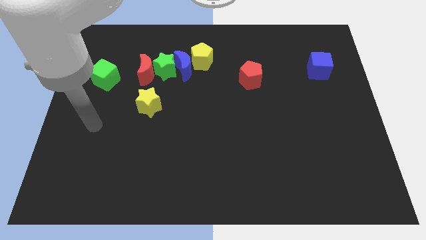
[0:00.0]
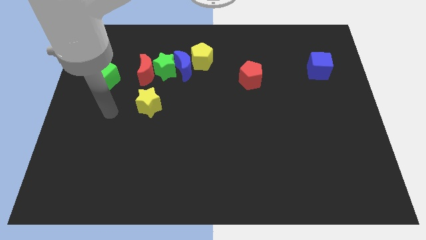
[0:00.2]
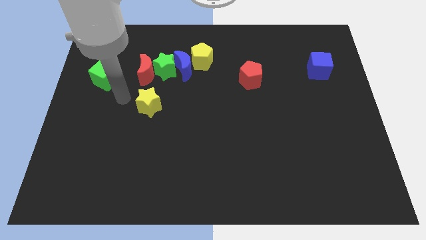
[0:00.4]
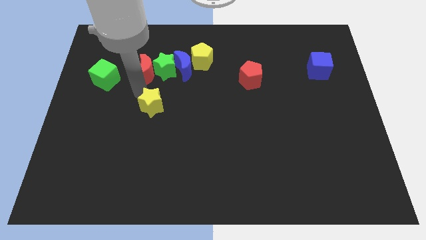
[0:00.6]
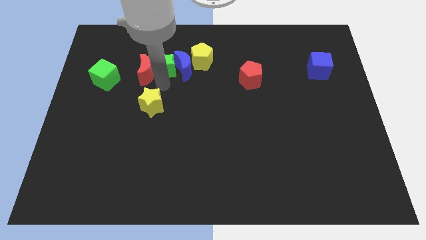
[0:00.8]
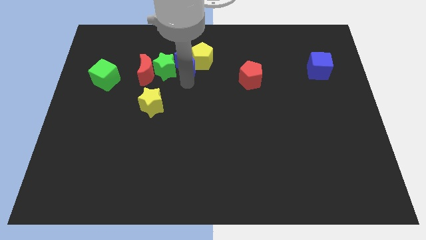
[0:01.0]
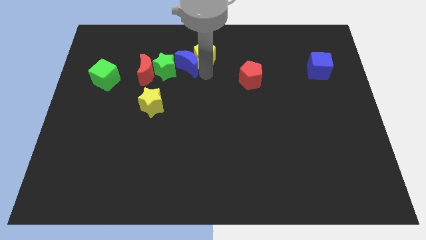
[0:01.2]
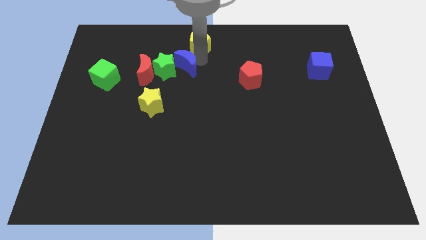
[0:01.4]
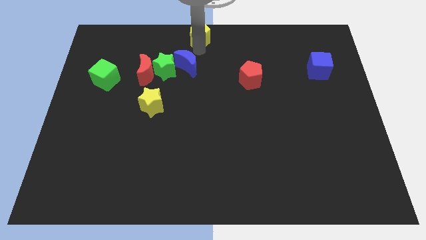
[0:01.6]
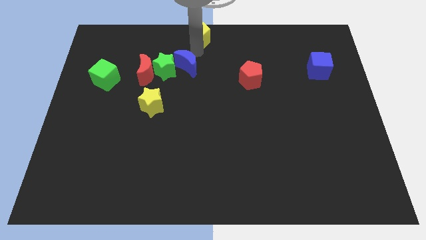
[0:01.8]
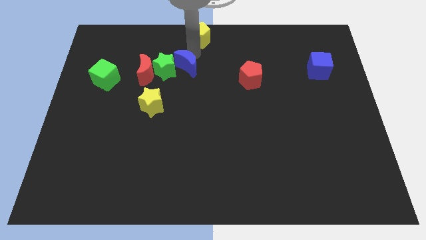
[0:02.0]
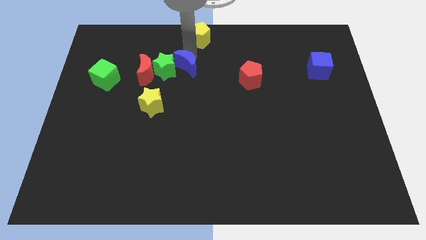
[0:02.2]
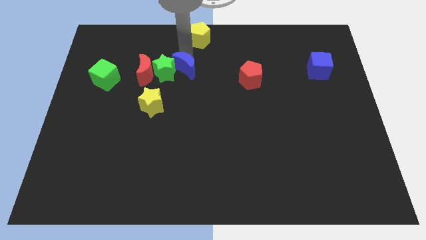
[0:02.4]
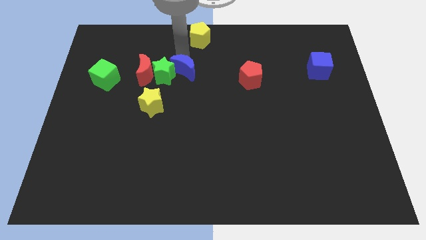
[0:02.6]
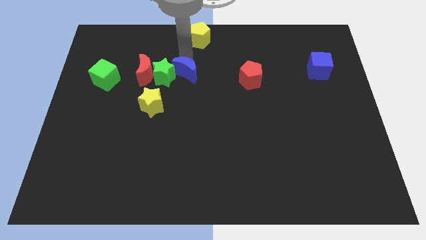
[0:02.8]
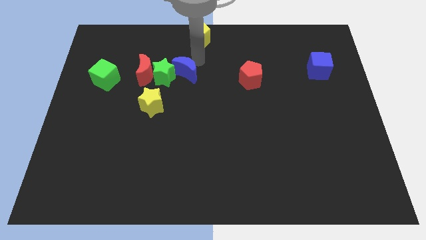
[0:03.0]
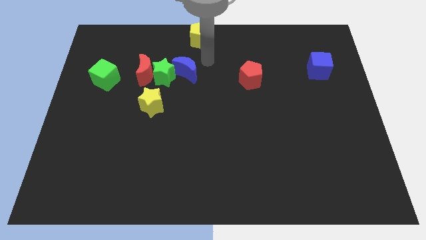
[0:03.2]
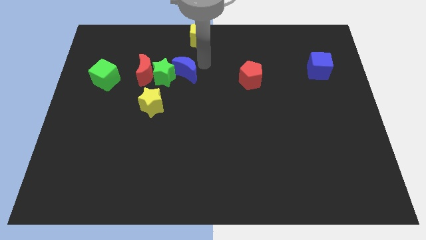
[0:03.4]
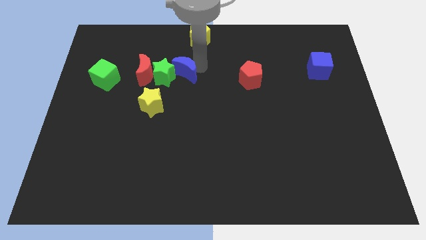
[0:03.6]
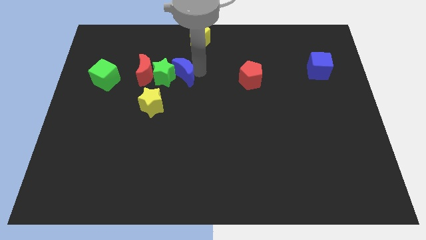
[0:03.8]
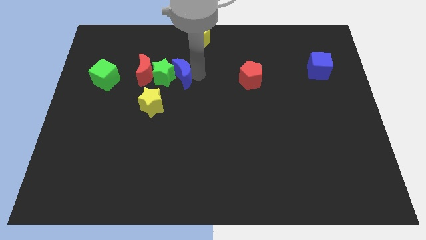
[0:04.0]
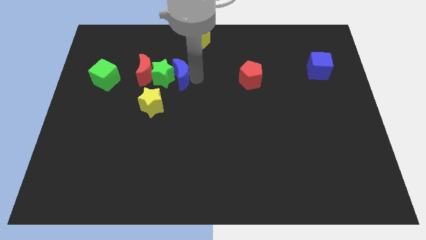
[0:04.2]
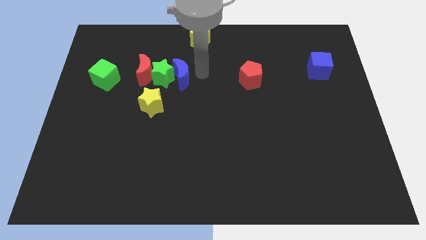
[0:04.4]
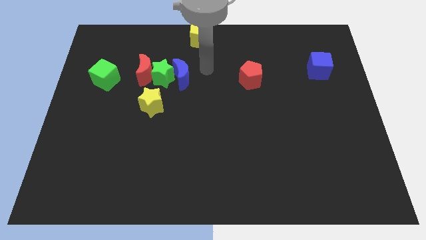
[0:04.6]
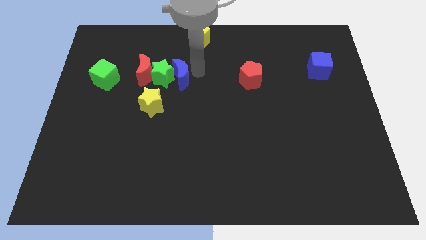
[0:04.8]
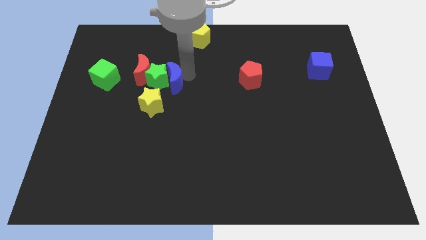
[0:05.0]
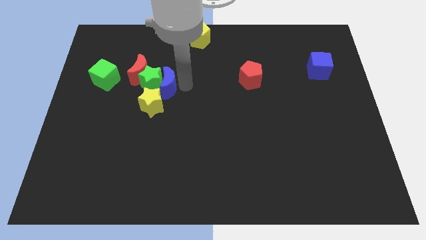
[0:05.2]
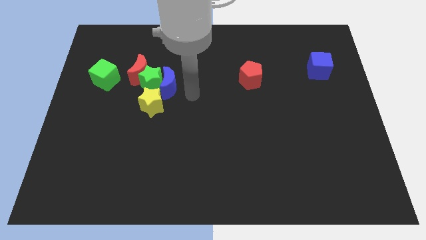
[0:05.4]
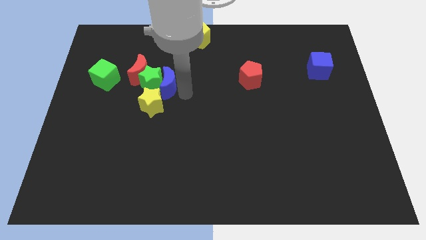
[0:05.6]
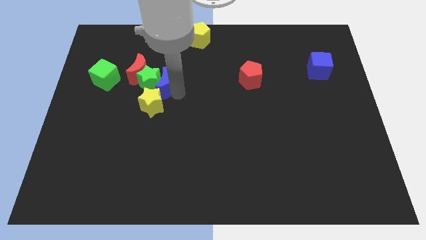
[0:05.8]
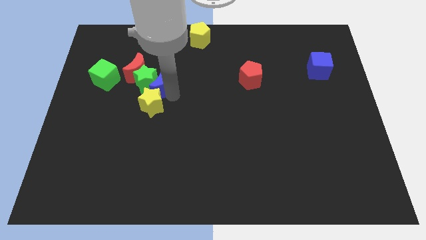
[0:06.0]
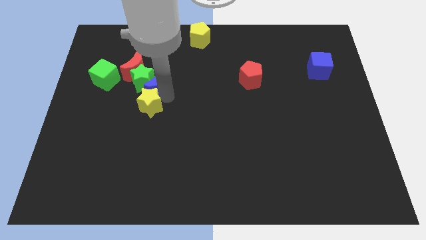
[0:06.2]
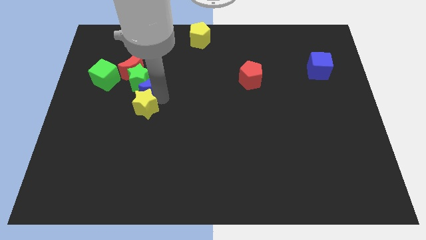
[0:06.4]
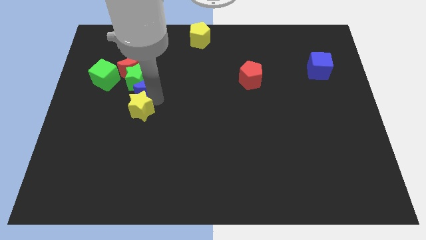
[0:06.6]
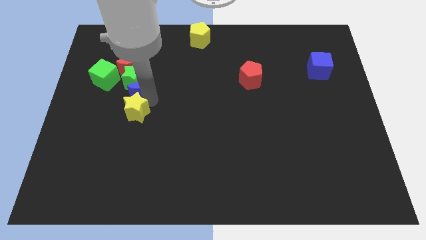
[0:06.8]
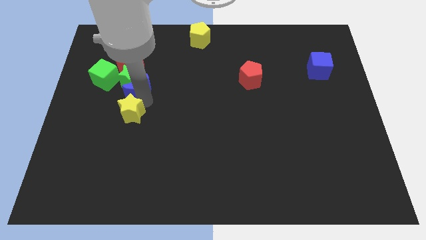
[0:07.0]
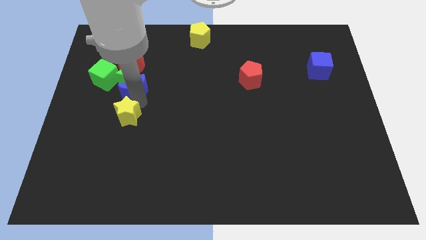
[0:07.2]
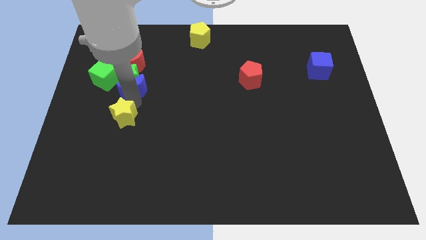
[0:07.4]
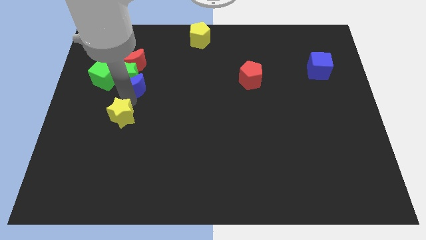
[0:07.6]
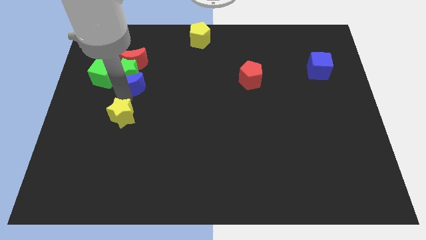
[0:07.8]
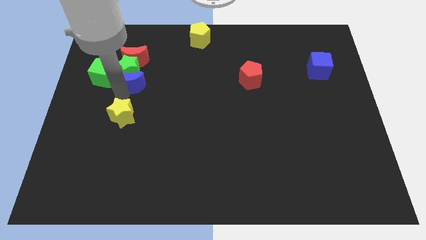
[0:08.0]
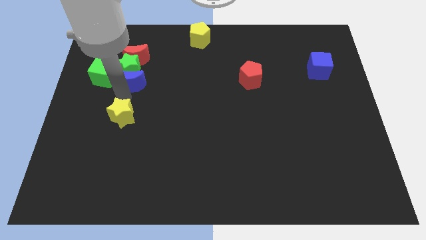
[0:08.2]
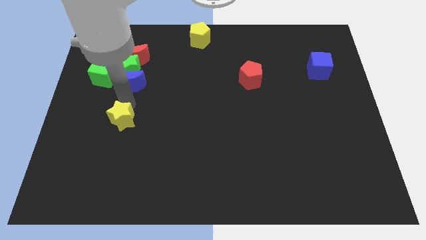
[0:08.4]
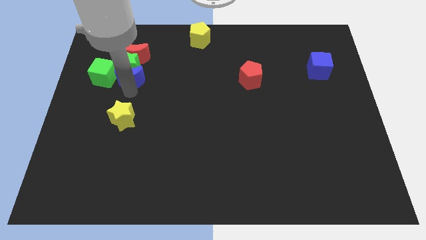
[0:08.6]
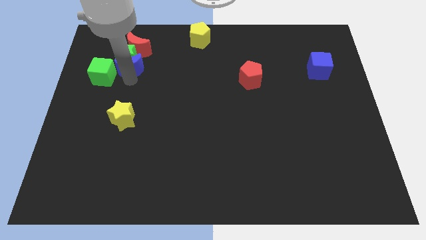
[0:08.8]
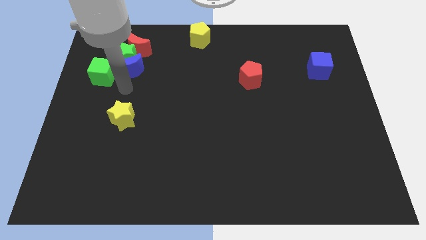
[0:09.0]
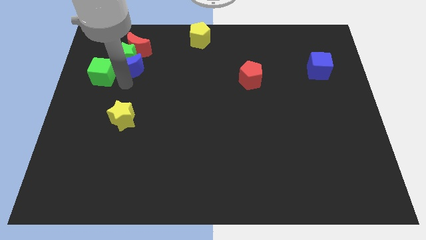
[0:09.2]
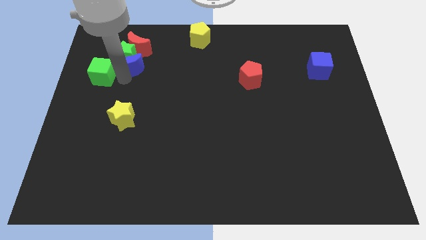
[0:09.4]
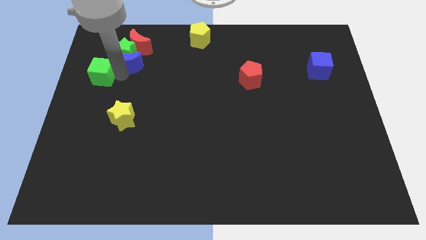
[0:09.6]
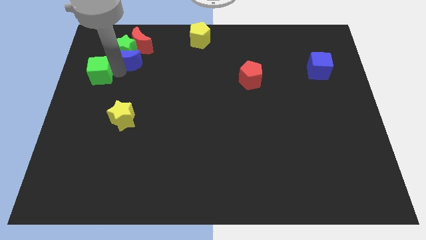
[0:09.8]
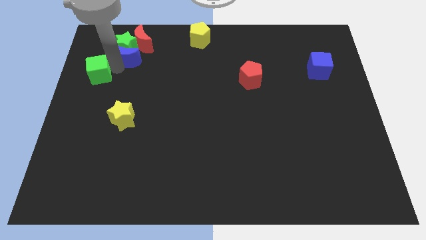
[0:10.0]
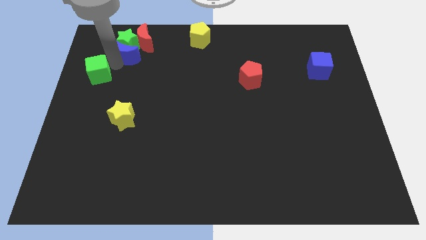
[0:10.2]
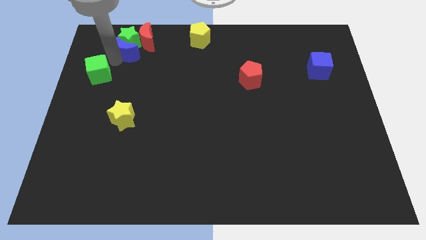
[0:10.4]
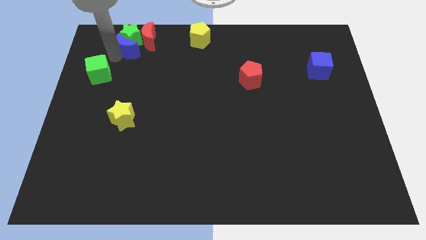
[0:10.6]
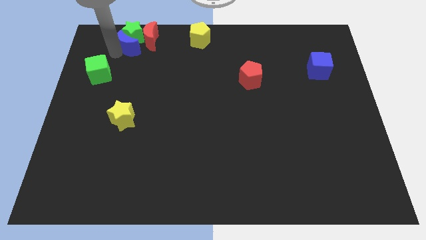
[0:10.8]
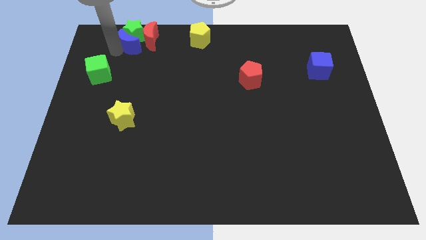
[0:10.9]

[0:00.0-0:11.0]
slide the blue moon next to the red moon

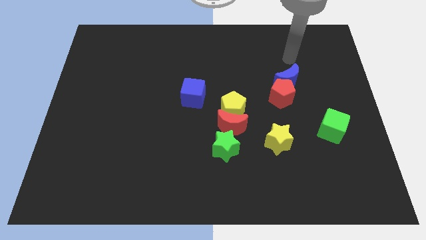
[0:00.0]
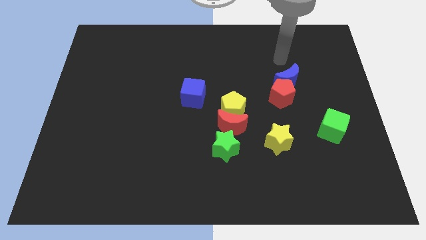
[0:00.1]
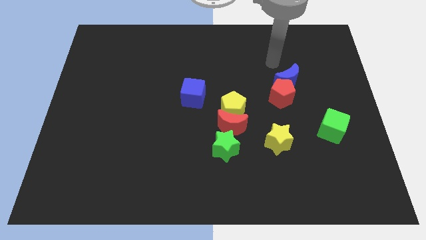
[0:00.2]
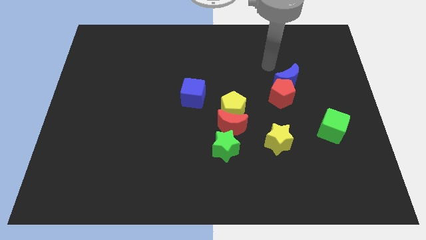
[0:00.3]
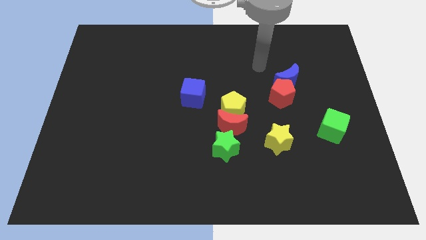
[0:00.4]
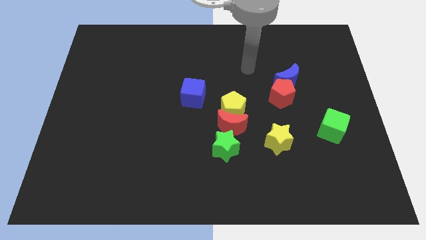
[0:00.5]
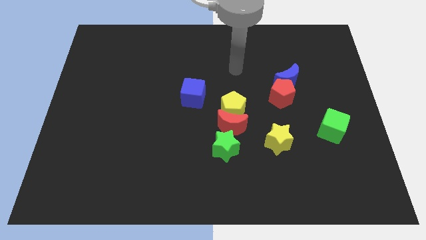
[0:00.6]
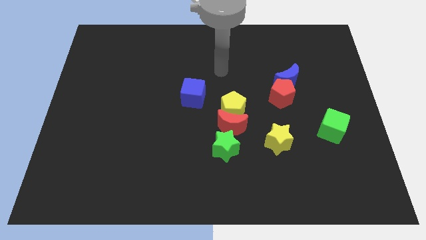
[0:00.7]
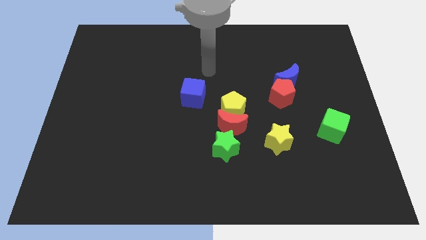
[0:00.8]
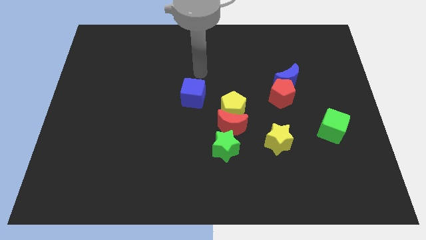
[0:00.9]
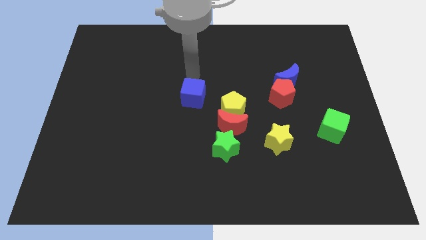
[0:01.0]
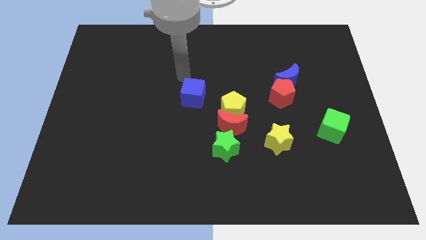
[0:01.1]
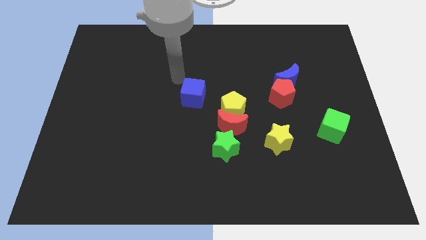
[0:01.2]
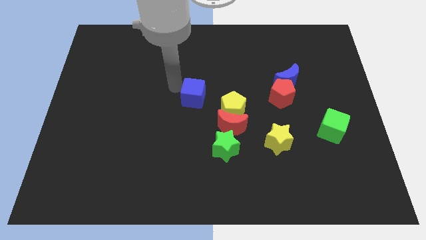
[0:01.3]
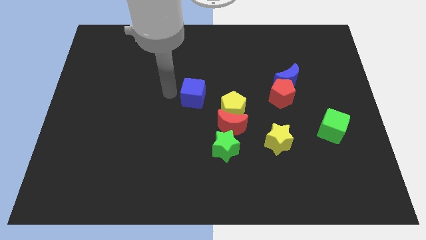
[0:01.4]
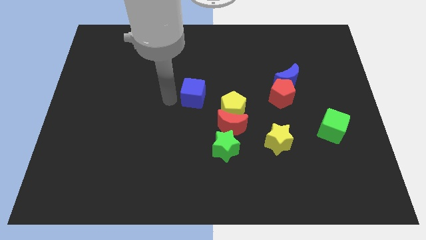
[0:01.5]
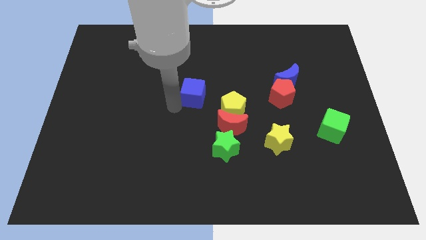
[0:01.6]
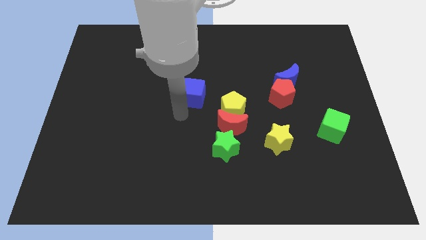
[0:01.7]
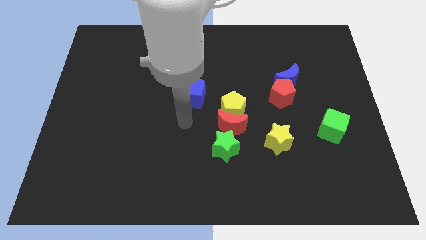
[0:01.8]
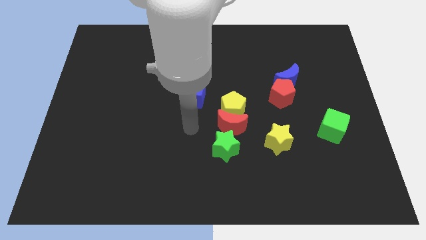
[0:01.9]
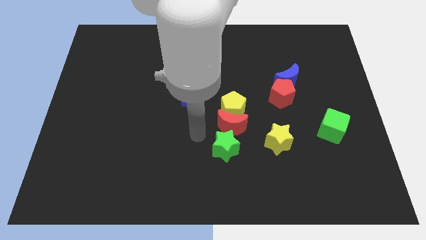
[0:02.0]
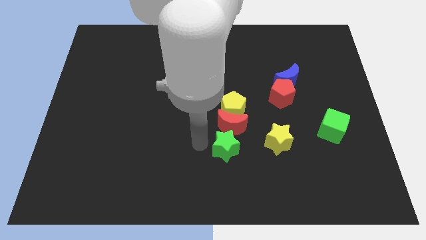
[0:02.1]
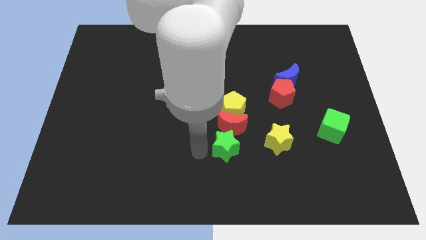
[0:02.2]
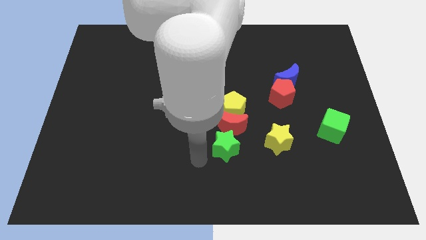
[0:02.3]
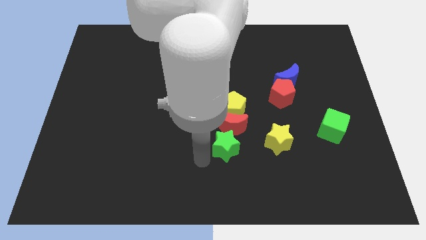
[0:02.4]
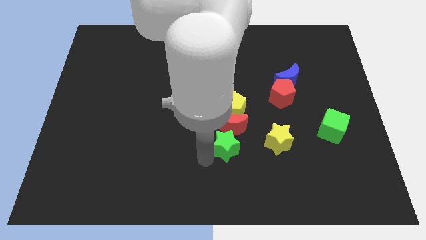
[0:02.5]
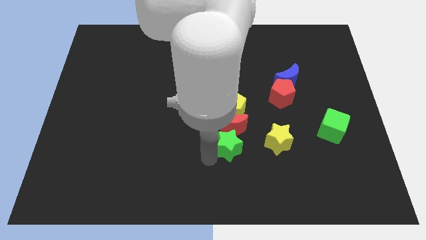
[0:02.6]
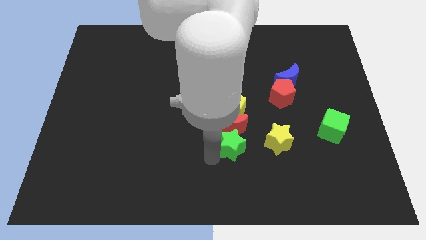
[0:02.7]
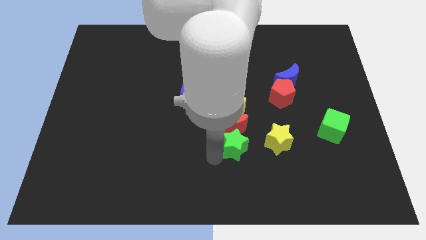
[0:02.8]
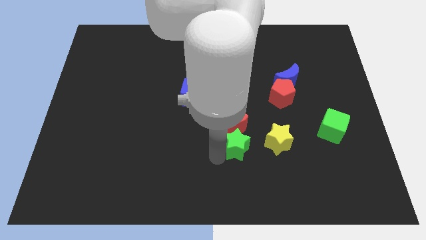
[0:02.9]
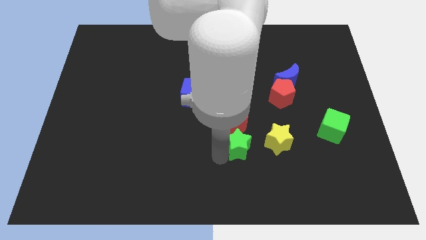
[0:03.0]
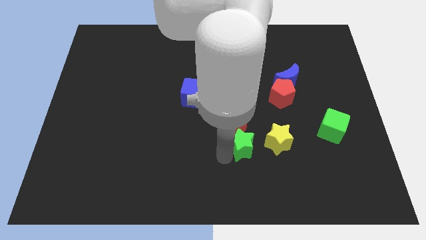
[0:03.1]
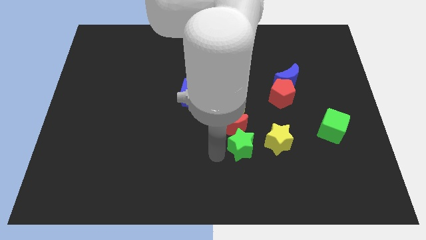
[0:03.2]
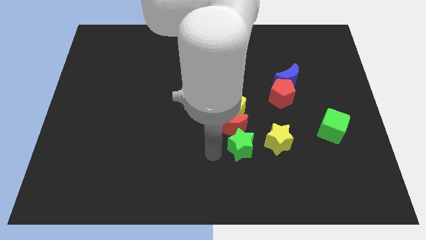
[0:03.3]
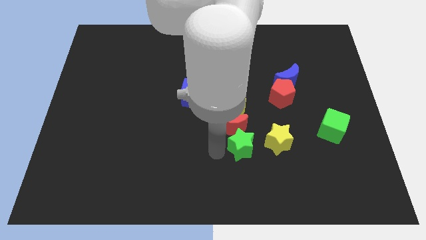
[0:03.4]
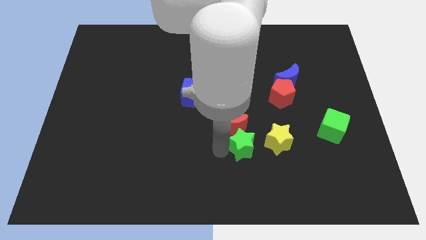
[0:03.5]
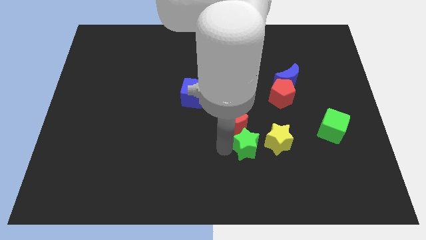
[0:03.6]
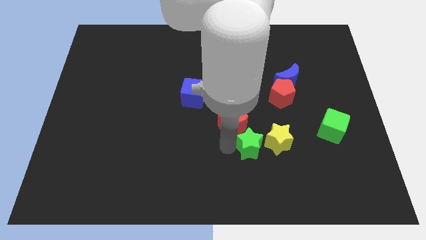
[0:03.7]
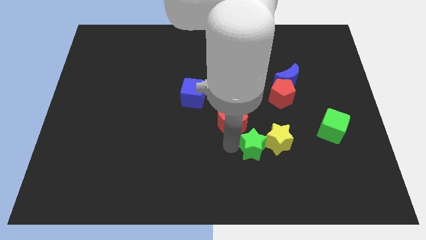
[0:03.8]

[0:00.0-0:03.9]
move the green star towards the yellow star
